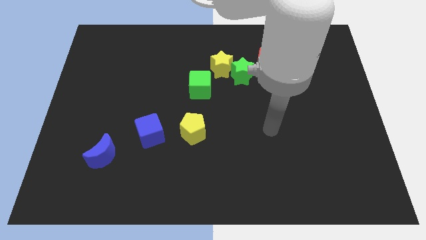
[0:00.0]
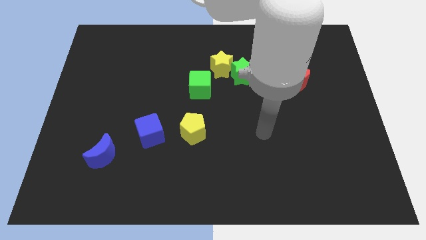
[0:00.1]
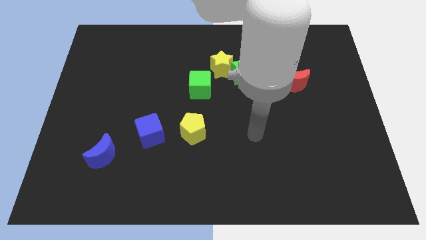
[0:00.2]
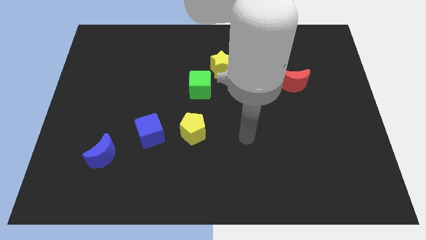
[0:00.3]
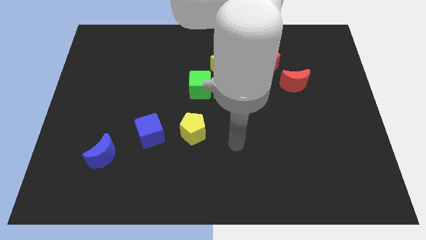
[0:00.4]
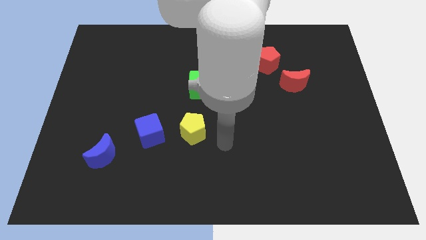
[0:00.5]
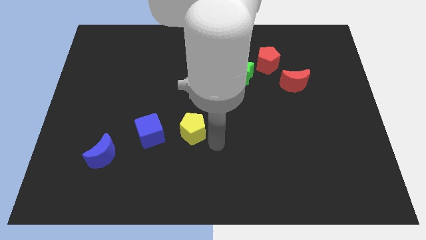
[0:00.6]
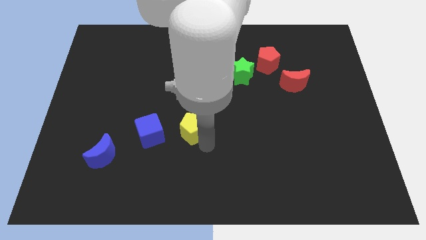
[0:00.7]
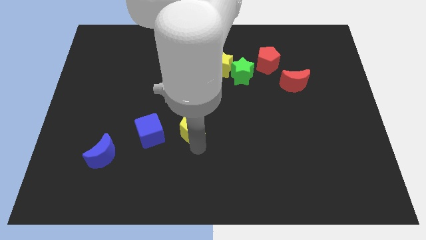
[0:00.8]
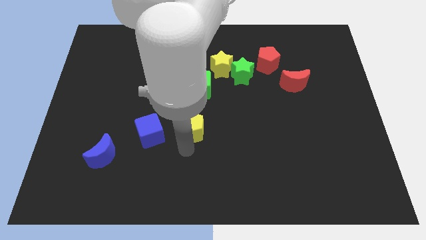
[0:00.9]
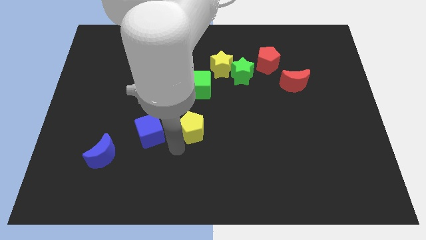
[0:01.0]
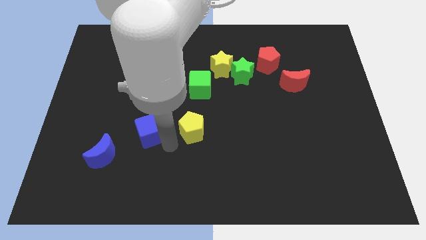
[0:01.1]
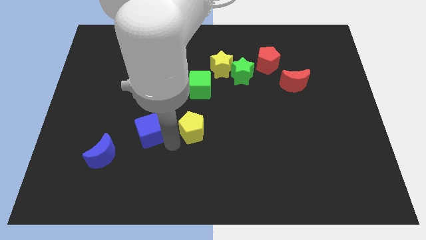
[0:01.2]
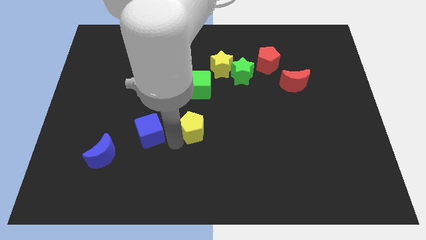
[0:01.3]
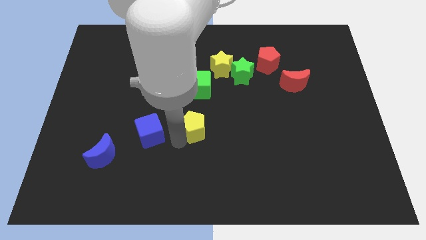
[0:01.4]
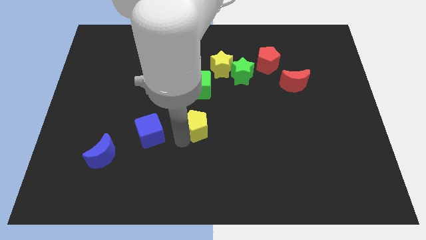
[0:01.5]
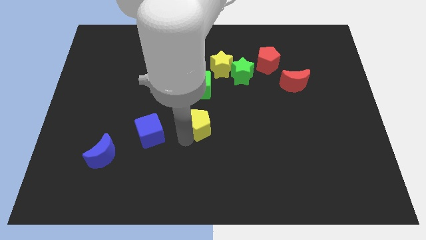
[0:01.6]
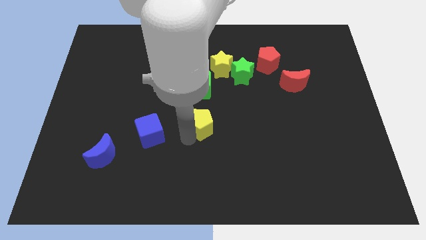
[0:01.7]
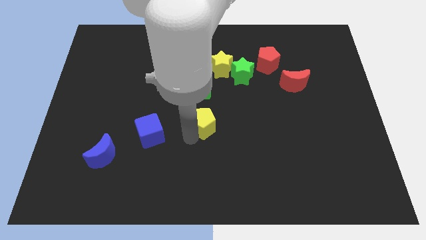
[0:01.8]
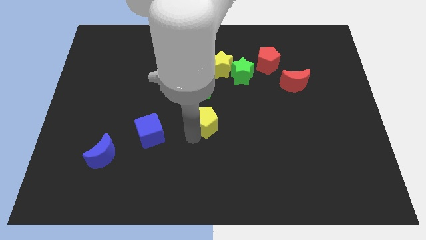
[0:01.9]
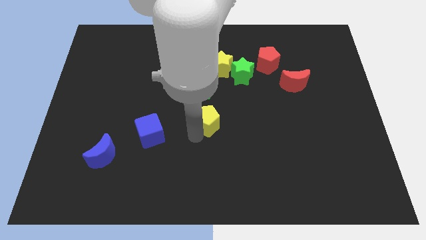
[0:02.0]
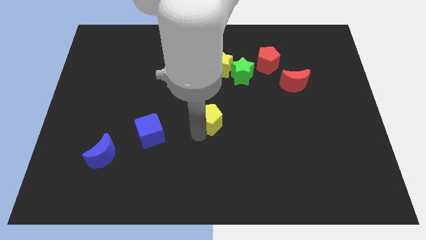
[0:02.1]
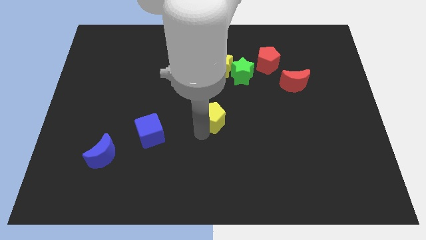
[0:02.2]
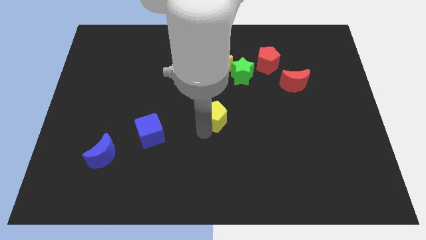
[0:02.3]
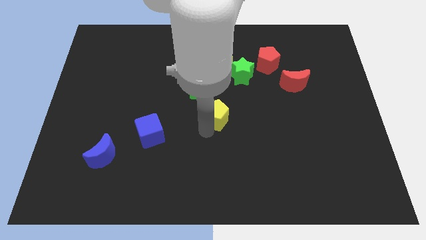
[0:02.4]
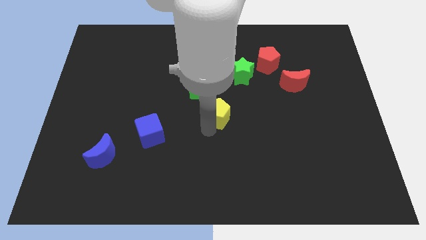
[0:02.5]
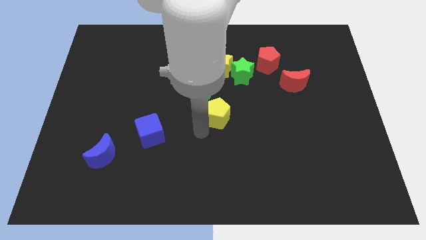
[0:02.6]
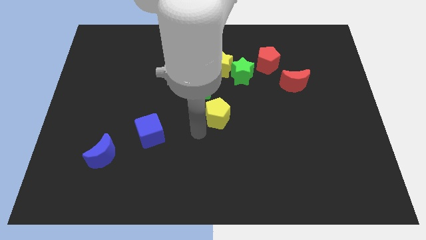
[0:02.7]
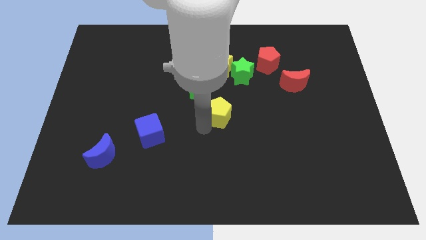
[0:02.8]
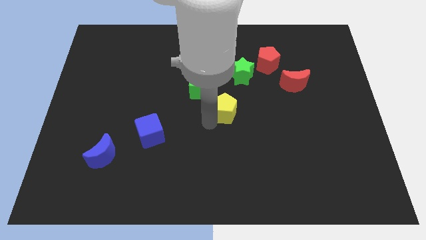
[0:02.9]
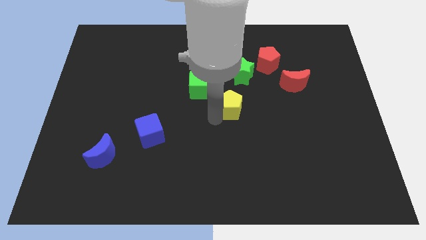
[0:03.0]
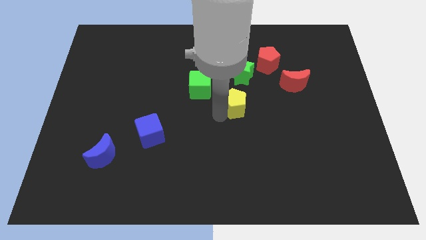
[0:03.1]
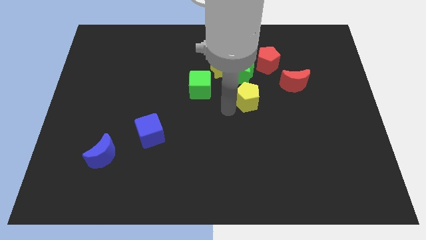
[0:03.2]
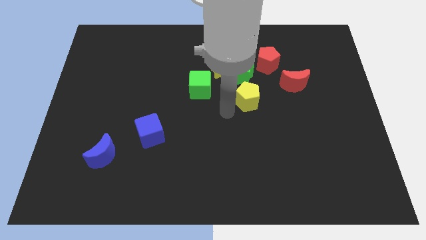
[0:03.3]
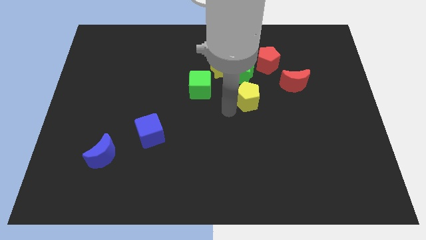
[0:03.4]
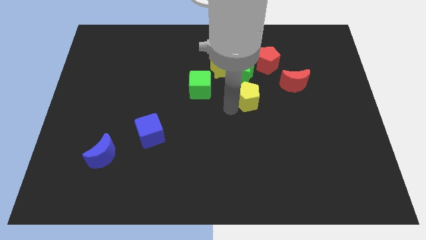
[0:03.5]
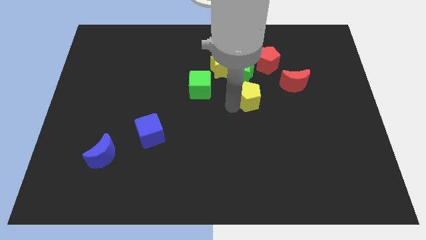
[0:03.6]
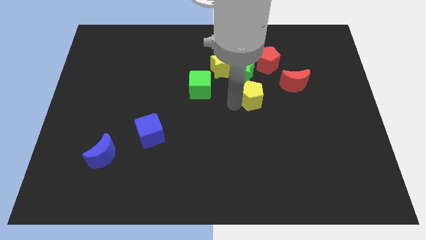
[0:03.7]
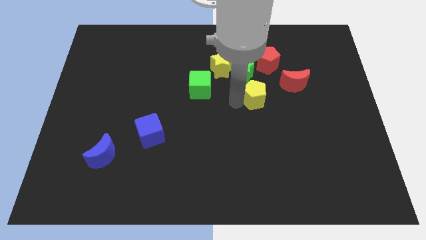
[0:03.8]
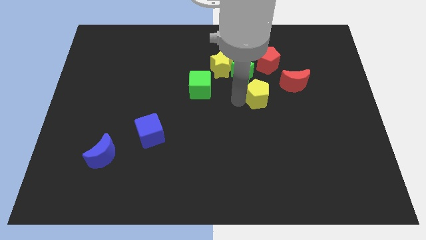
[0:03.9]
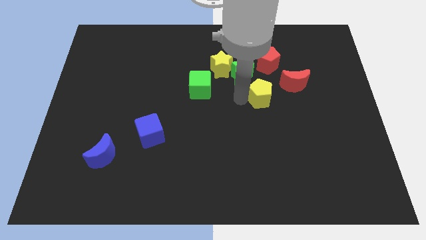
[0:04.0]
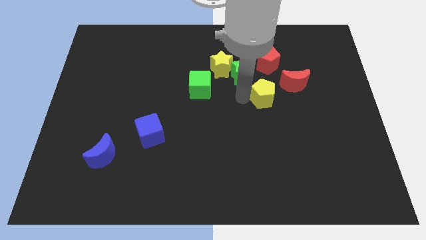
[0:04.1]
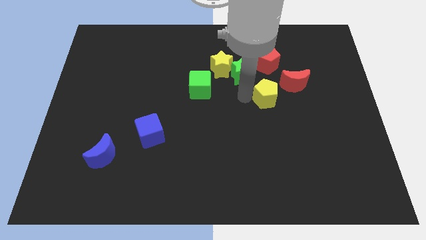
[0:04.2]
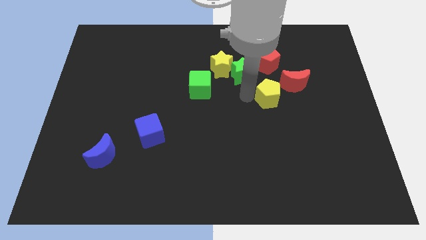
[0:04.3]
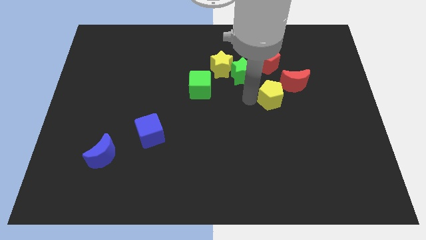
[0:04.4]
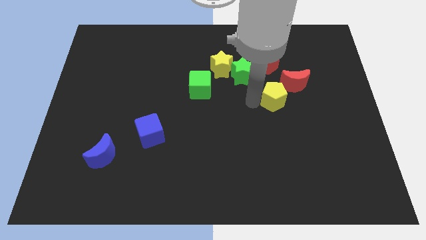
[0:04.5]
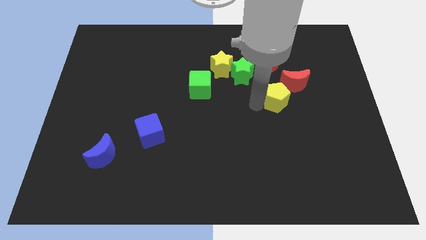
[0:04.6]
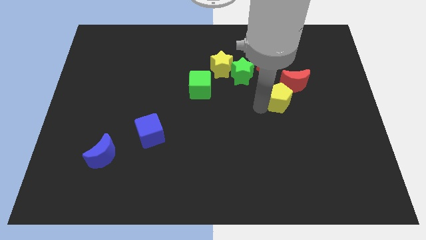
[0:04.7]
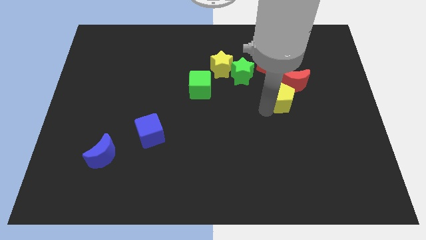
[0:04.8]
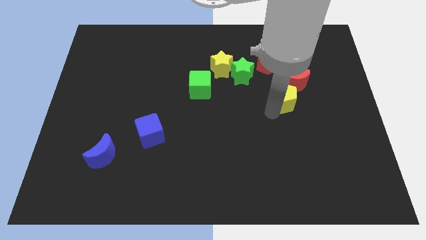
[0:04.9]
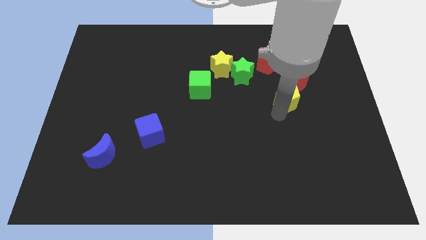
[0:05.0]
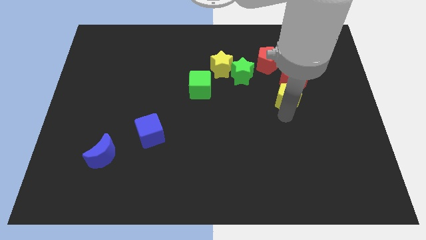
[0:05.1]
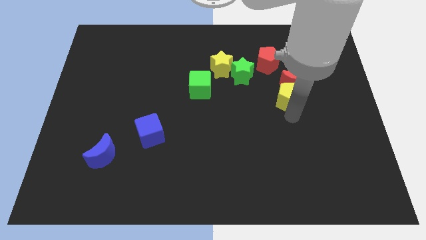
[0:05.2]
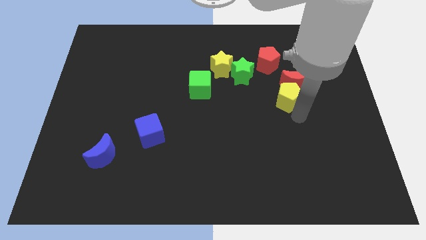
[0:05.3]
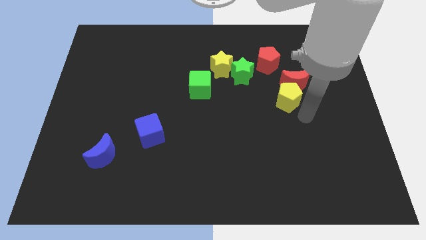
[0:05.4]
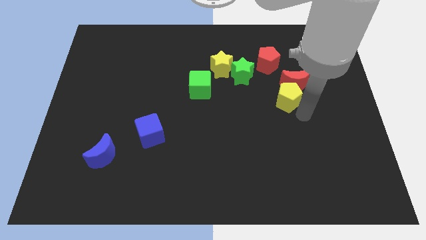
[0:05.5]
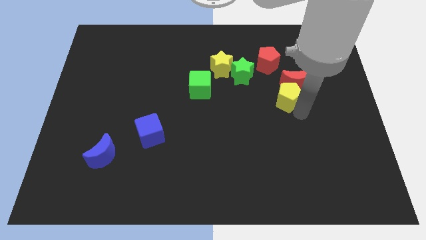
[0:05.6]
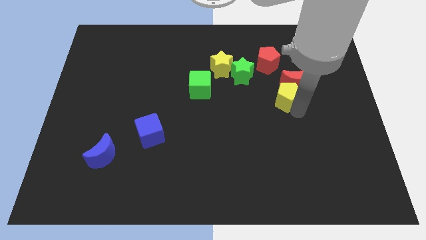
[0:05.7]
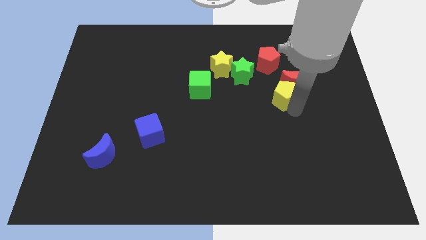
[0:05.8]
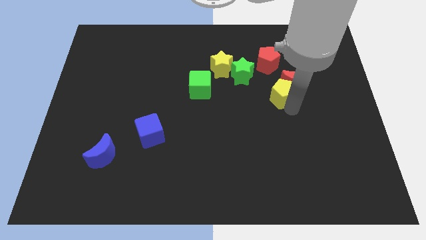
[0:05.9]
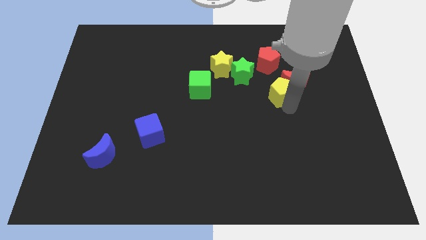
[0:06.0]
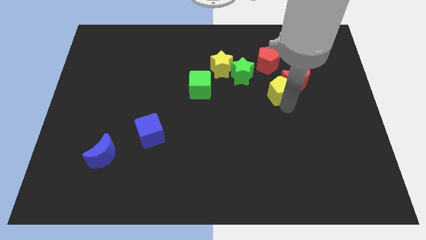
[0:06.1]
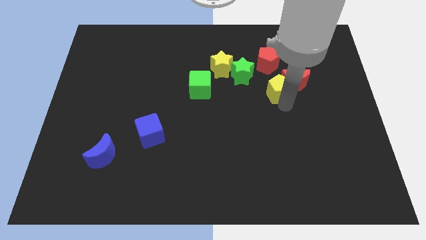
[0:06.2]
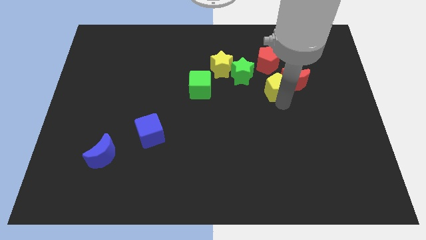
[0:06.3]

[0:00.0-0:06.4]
put the yellow pentagon to the right side of the green star
